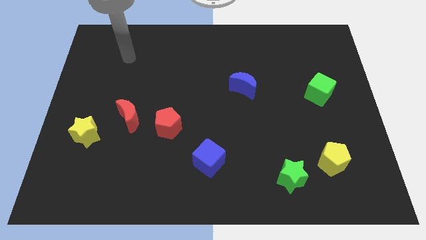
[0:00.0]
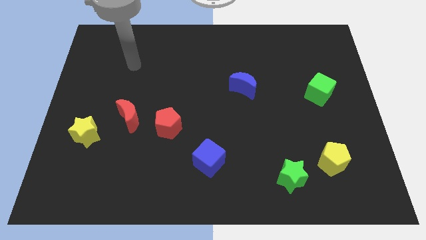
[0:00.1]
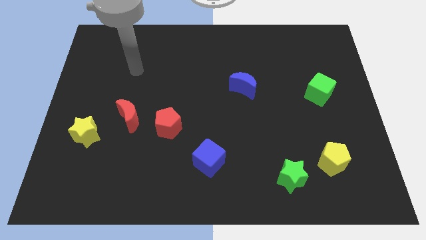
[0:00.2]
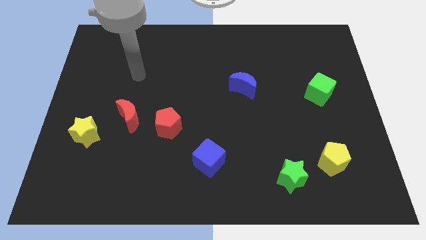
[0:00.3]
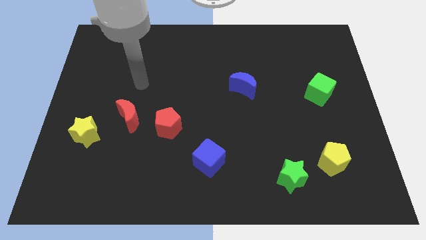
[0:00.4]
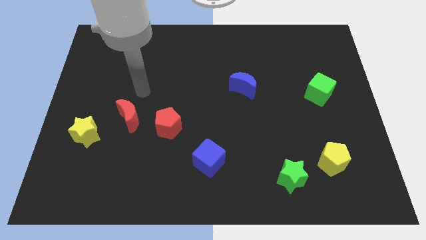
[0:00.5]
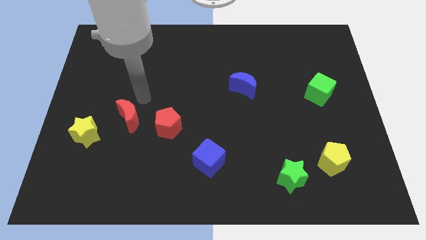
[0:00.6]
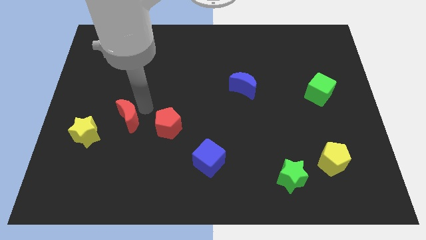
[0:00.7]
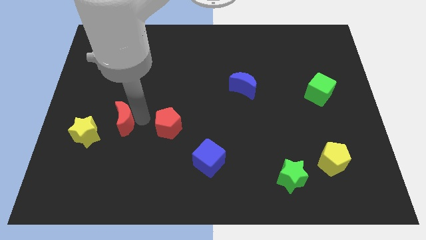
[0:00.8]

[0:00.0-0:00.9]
separate the red pentagon from the red moon

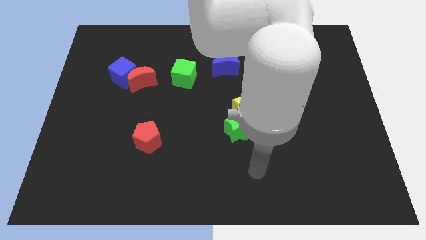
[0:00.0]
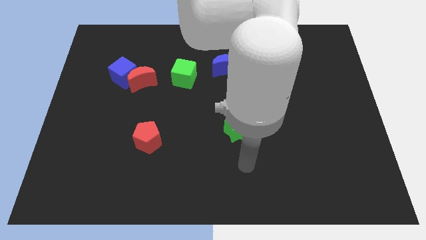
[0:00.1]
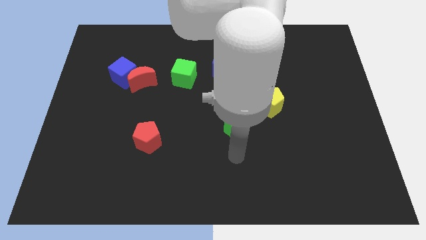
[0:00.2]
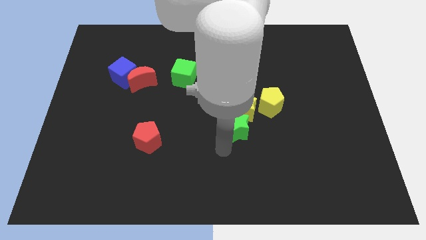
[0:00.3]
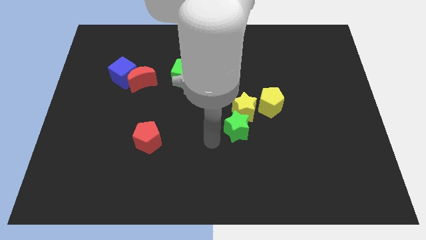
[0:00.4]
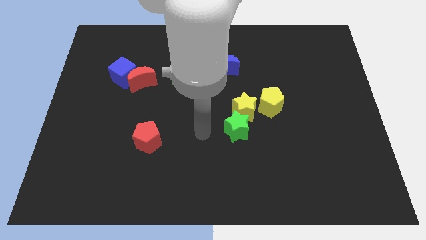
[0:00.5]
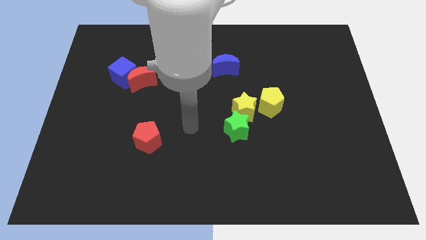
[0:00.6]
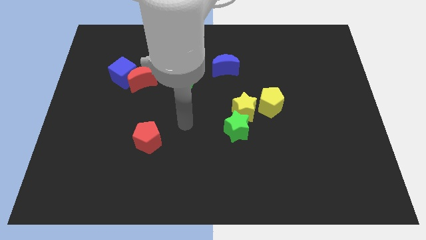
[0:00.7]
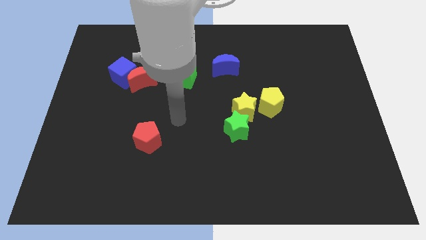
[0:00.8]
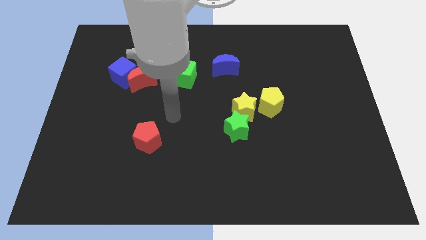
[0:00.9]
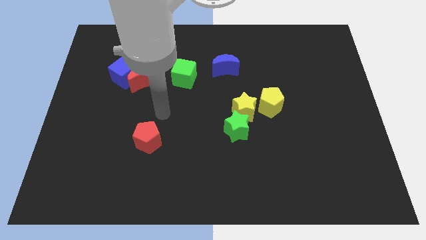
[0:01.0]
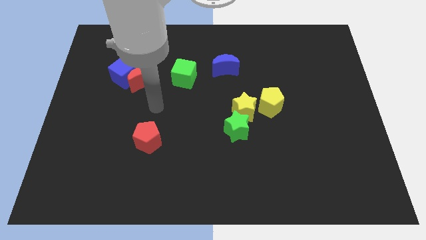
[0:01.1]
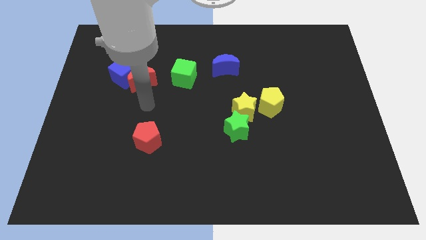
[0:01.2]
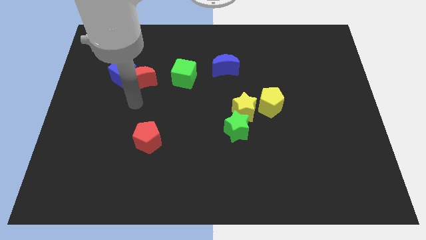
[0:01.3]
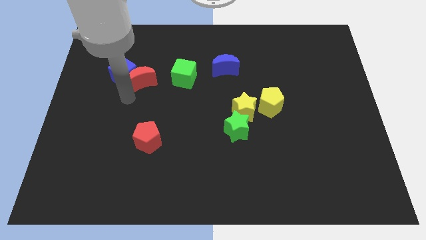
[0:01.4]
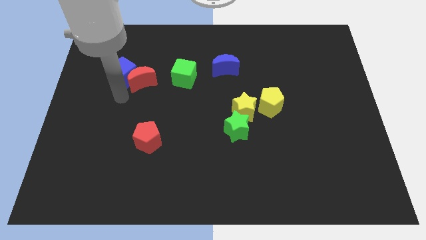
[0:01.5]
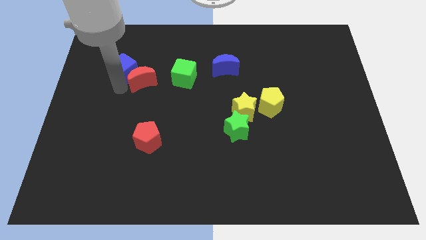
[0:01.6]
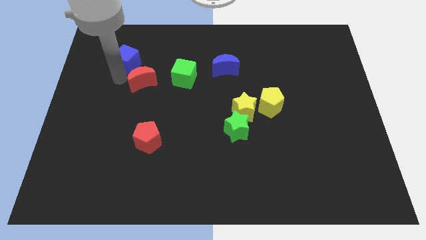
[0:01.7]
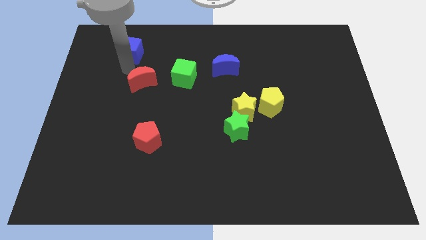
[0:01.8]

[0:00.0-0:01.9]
pull the red moon apart from the blue cube

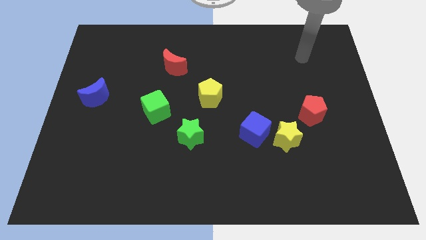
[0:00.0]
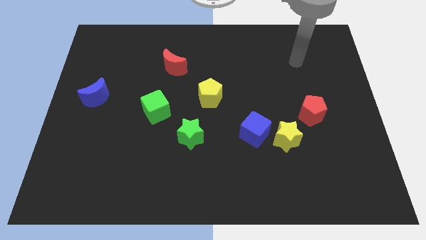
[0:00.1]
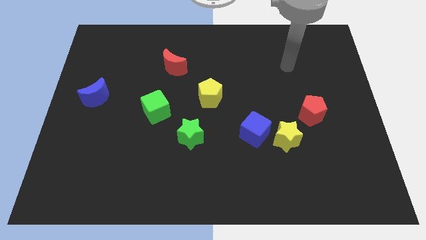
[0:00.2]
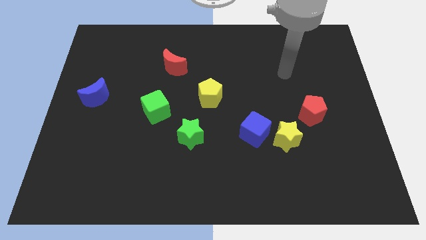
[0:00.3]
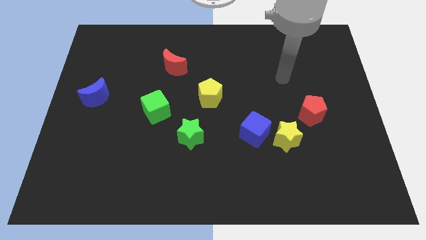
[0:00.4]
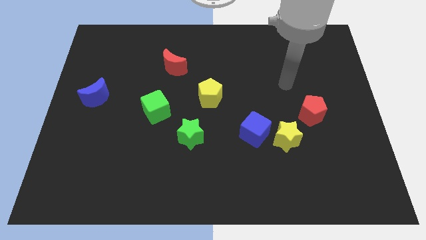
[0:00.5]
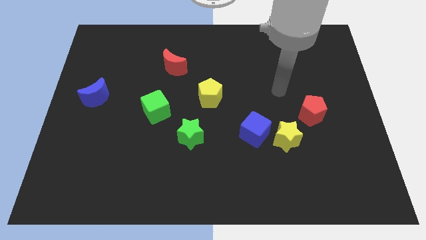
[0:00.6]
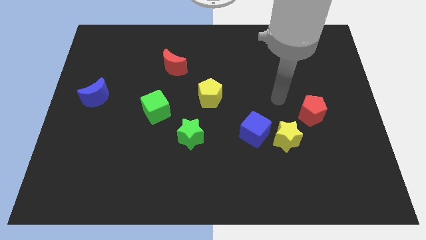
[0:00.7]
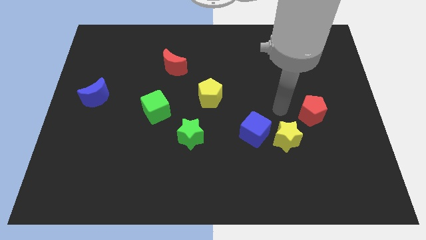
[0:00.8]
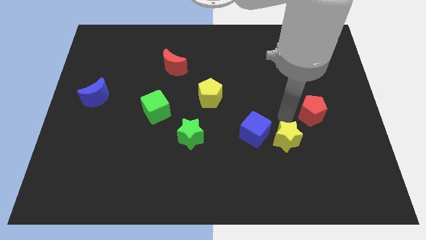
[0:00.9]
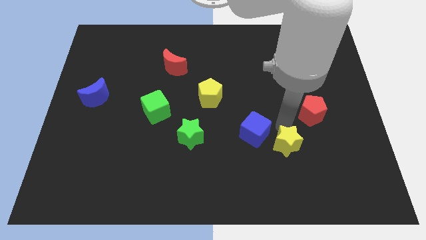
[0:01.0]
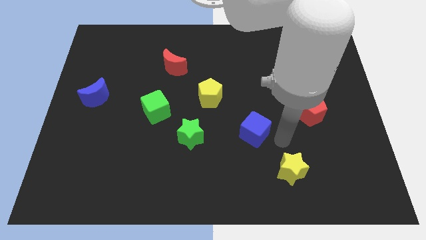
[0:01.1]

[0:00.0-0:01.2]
move the blue cube away from the yellow star

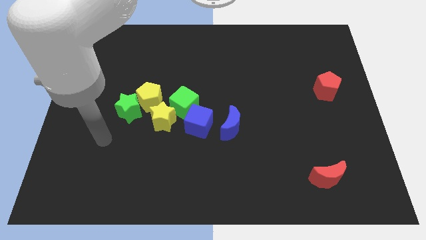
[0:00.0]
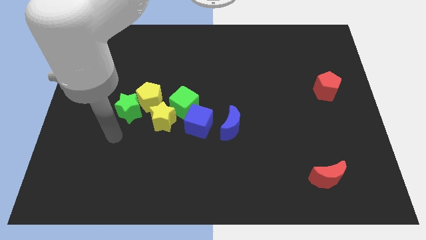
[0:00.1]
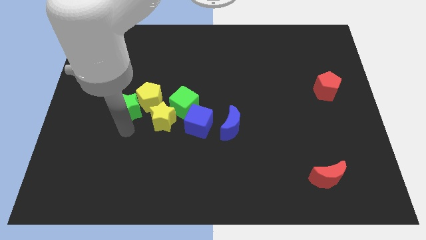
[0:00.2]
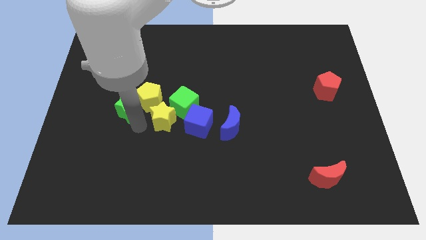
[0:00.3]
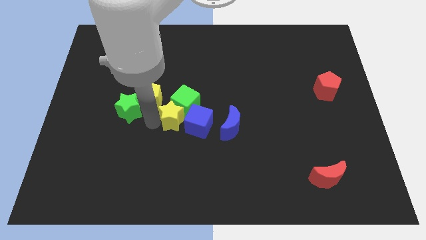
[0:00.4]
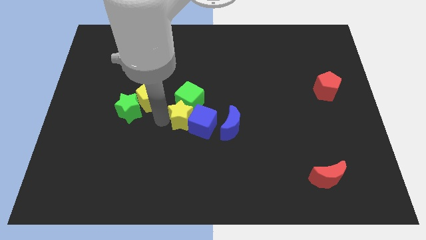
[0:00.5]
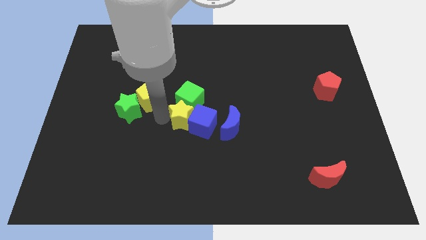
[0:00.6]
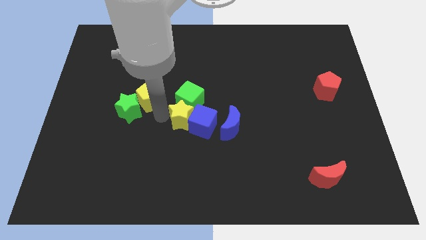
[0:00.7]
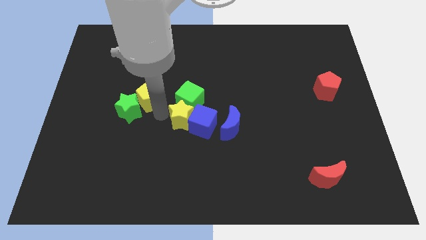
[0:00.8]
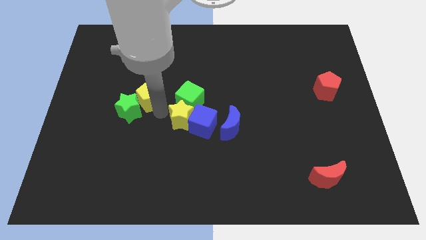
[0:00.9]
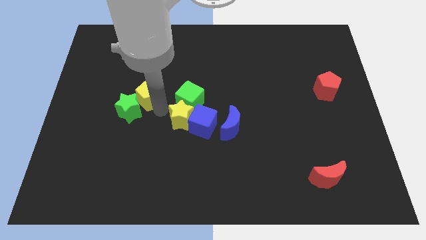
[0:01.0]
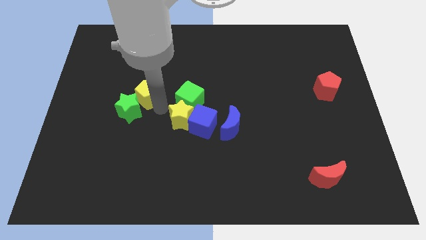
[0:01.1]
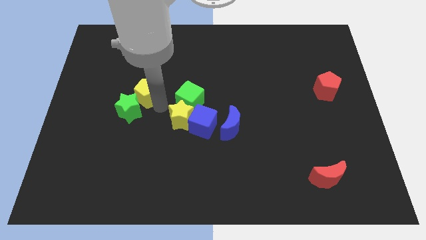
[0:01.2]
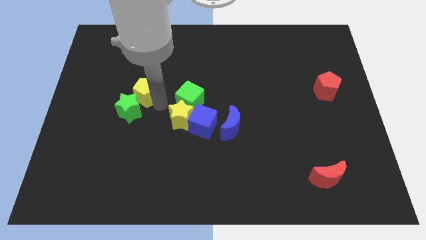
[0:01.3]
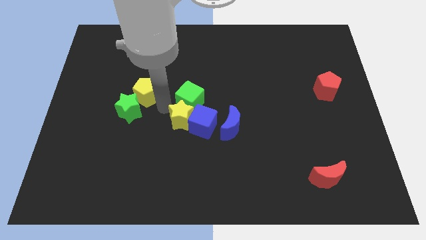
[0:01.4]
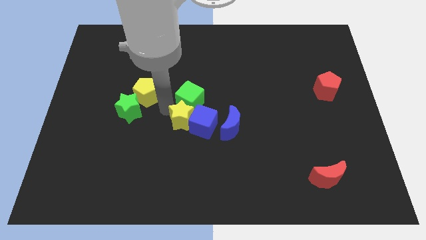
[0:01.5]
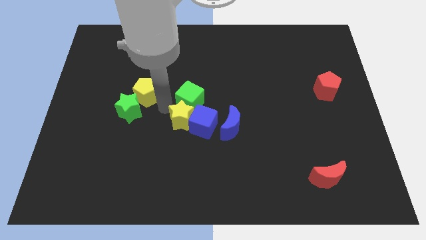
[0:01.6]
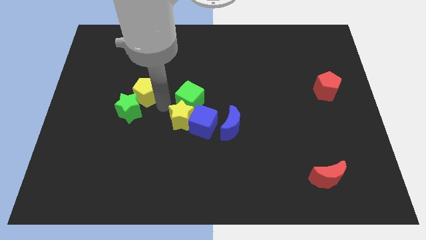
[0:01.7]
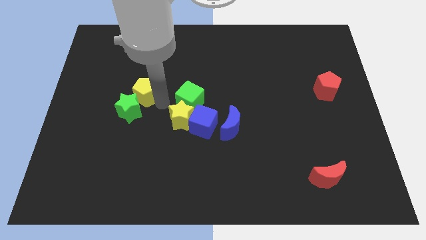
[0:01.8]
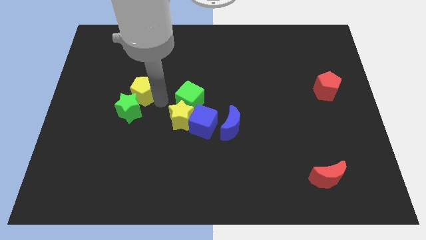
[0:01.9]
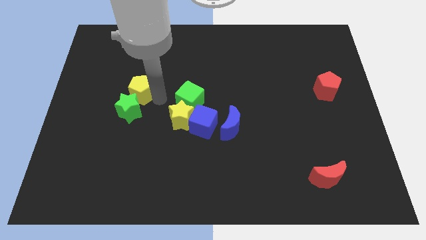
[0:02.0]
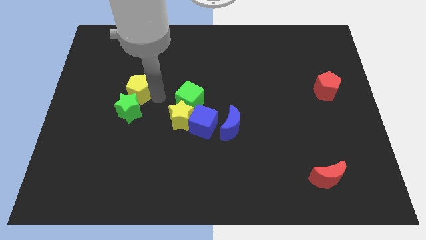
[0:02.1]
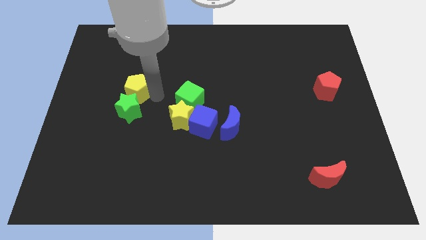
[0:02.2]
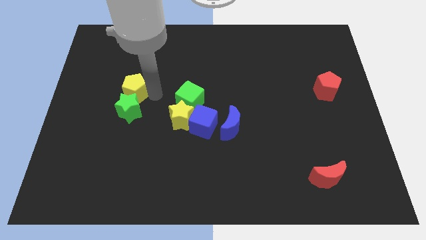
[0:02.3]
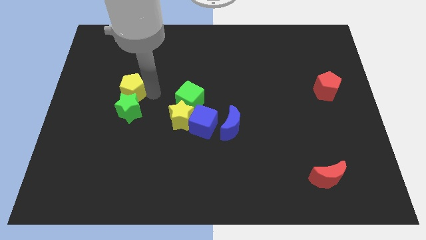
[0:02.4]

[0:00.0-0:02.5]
separate the yellow pentagon from the green star, yellow star, and green cube

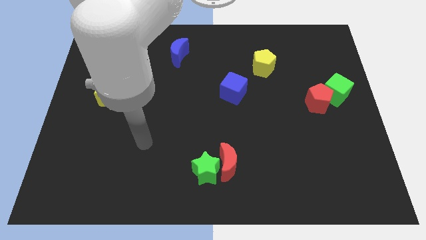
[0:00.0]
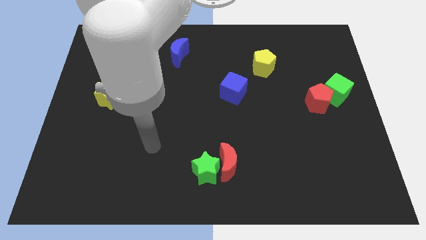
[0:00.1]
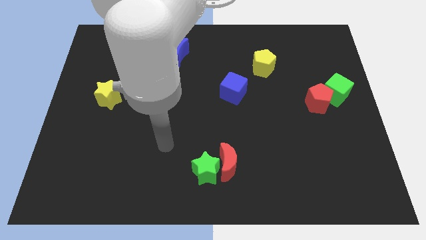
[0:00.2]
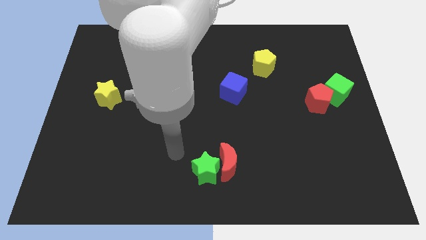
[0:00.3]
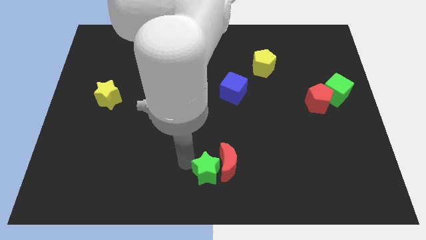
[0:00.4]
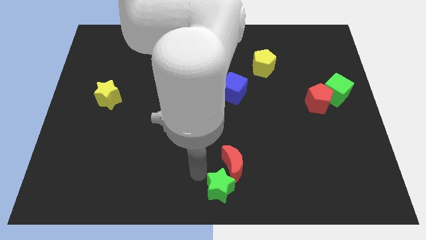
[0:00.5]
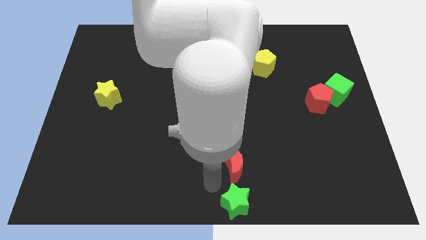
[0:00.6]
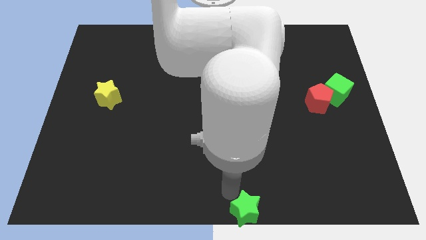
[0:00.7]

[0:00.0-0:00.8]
separate the red moon from the green star

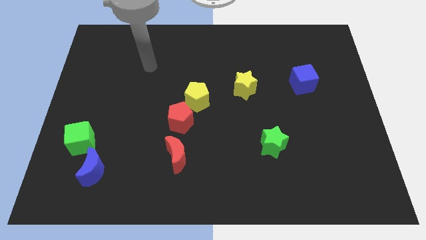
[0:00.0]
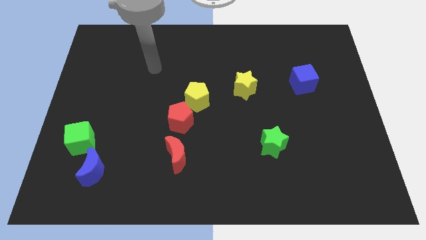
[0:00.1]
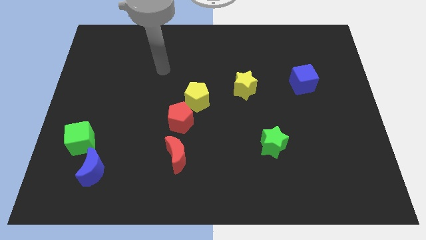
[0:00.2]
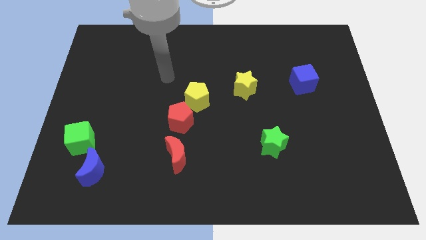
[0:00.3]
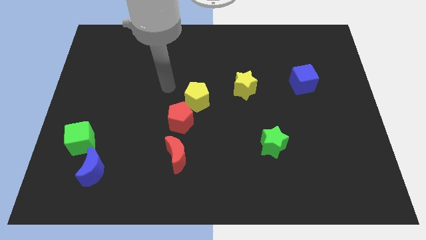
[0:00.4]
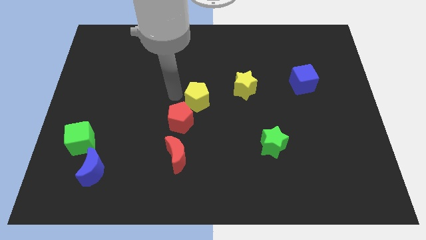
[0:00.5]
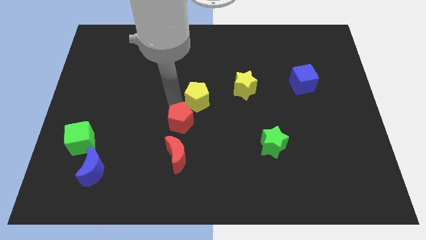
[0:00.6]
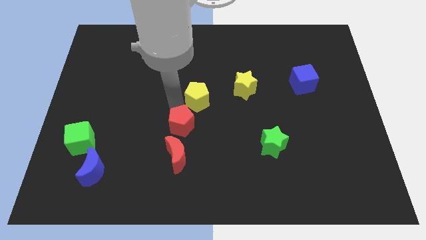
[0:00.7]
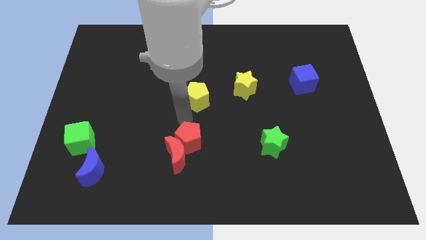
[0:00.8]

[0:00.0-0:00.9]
separate the yellow pentagon from the red pentagon

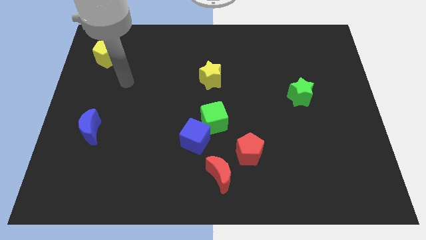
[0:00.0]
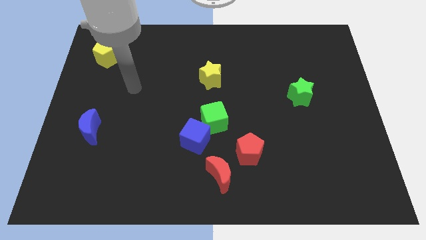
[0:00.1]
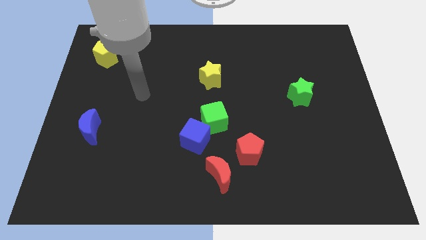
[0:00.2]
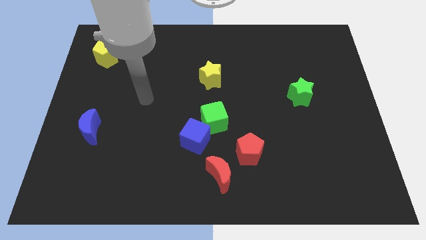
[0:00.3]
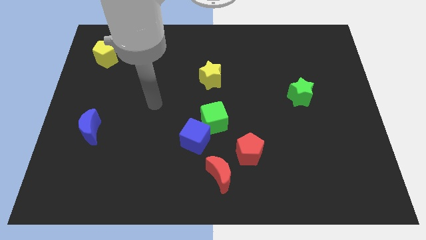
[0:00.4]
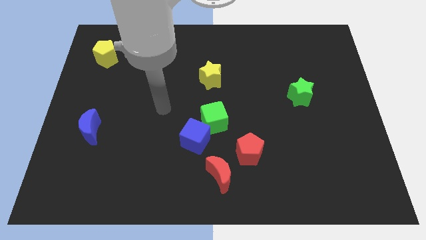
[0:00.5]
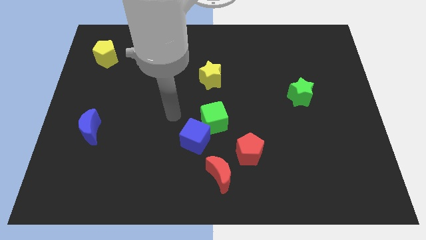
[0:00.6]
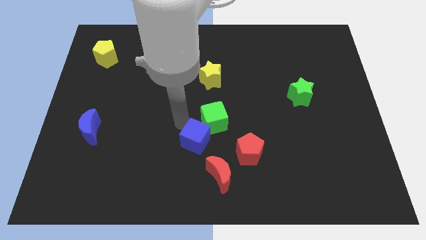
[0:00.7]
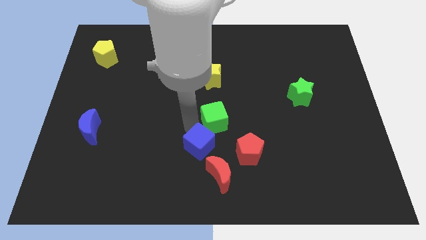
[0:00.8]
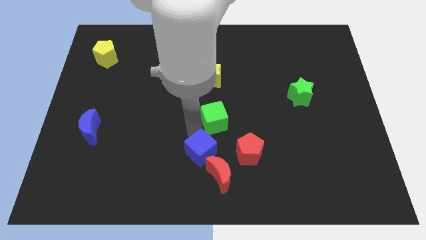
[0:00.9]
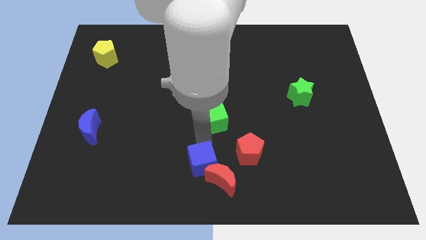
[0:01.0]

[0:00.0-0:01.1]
pull the green cube apart from the blue cube
